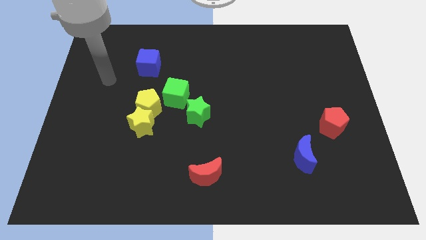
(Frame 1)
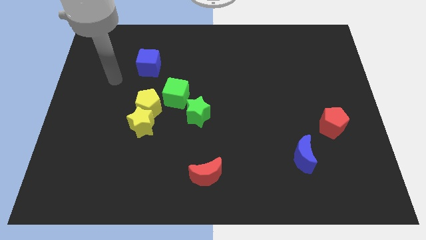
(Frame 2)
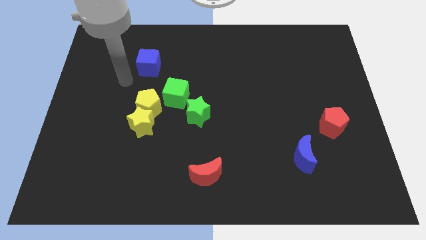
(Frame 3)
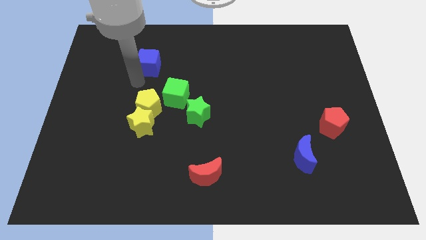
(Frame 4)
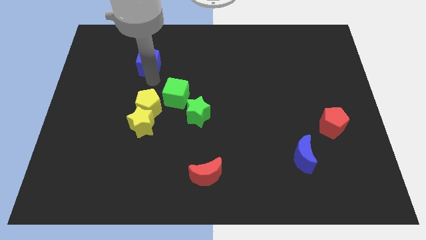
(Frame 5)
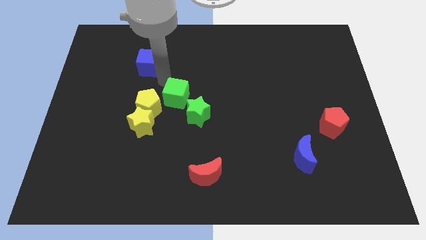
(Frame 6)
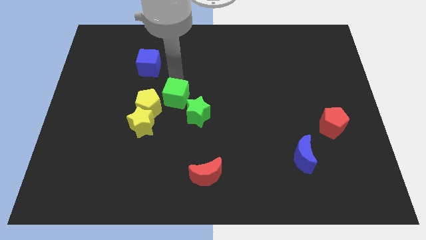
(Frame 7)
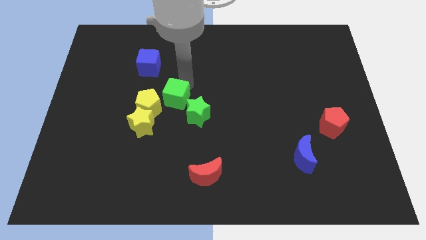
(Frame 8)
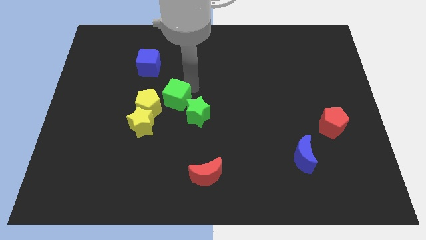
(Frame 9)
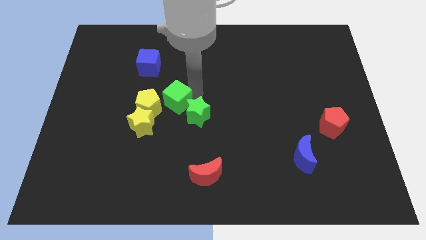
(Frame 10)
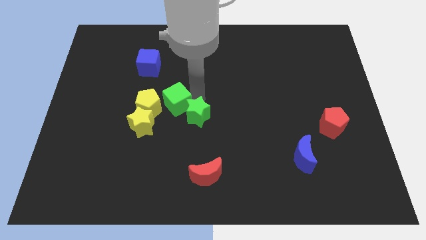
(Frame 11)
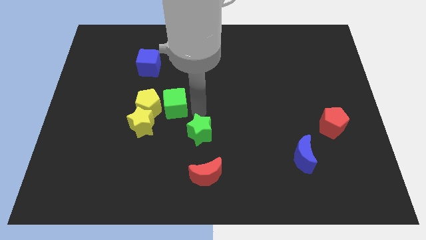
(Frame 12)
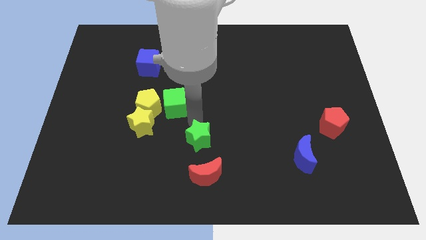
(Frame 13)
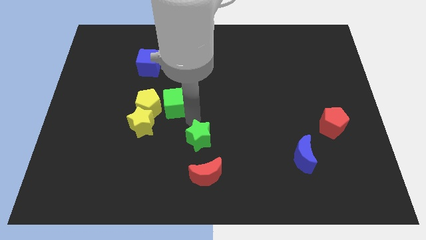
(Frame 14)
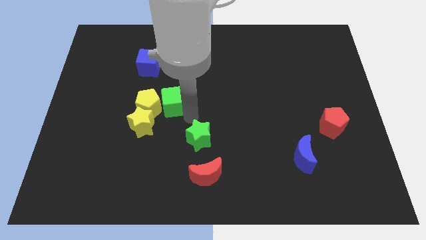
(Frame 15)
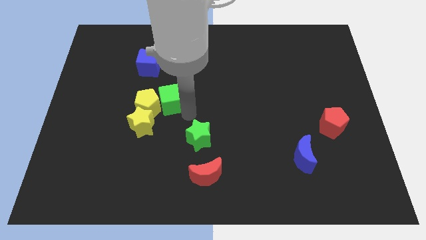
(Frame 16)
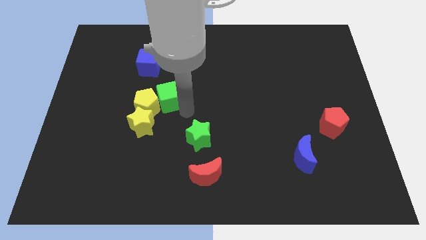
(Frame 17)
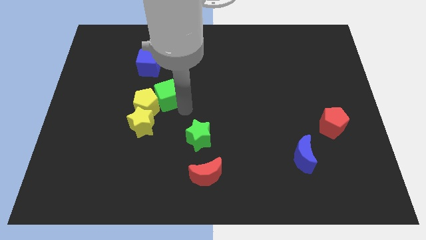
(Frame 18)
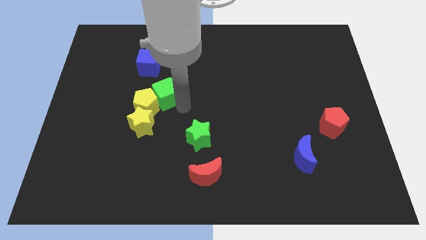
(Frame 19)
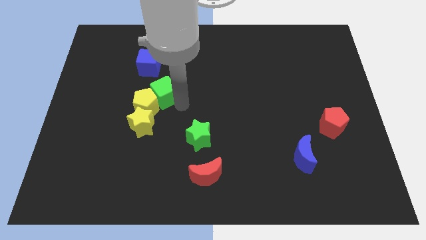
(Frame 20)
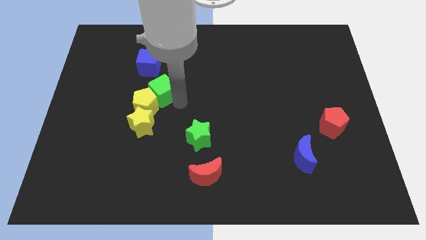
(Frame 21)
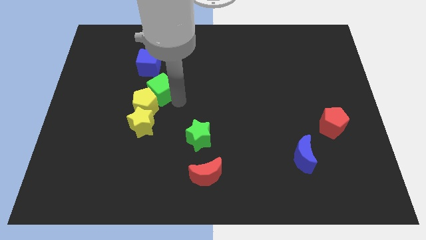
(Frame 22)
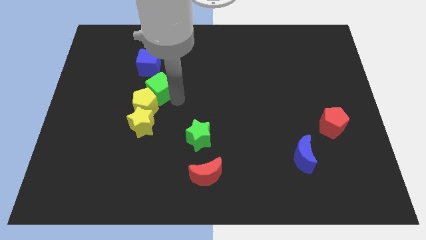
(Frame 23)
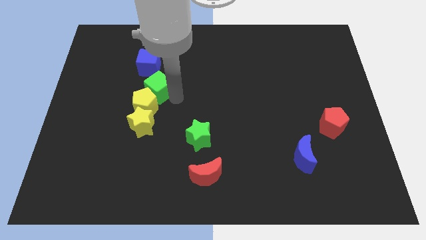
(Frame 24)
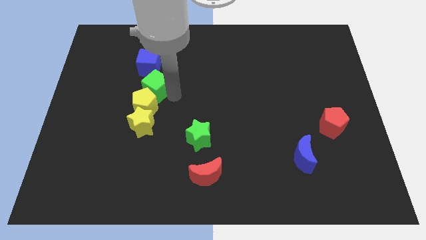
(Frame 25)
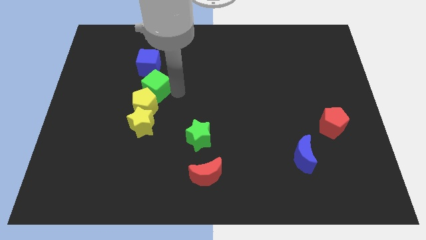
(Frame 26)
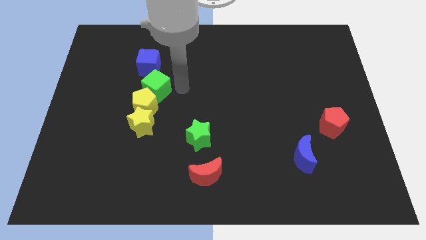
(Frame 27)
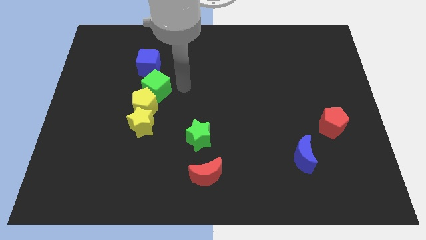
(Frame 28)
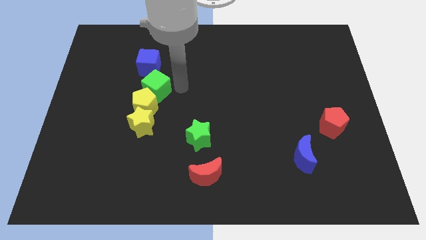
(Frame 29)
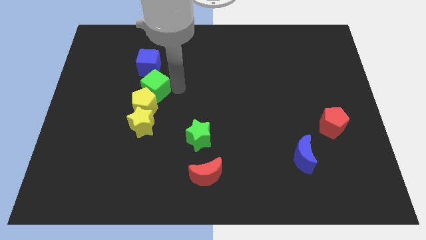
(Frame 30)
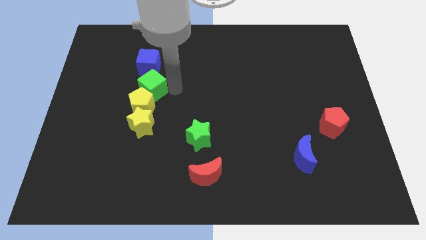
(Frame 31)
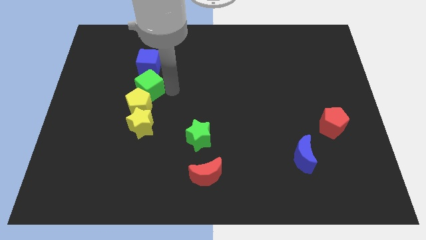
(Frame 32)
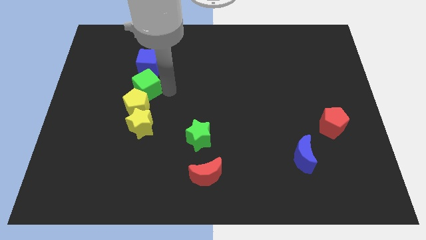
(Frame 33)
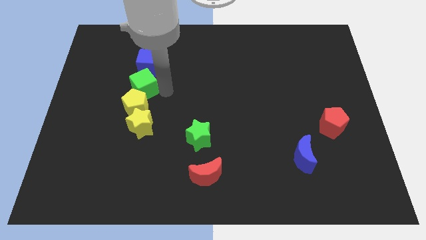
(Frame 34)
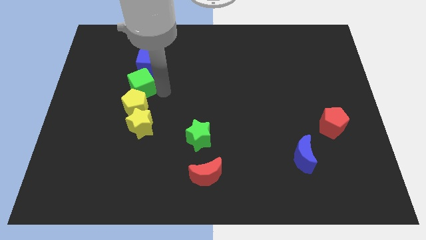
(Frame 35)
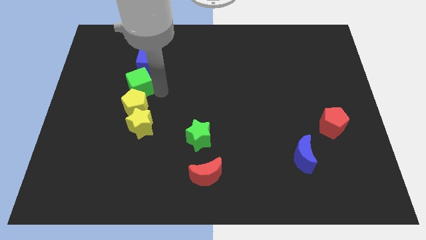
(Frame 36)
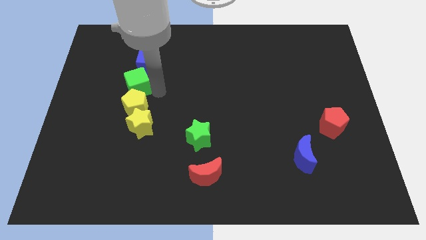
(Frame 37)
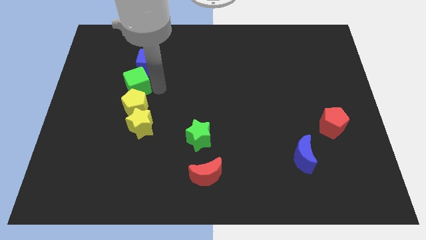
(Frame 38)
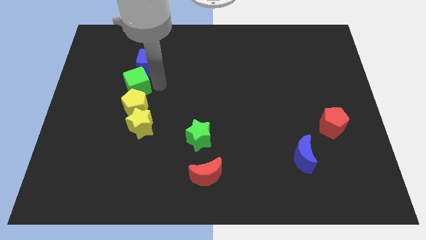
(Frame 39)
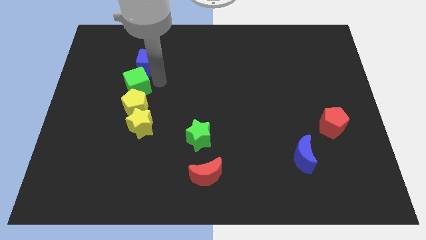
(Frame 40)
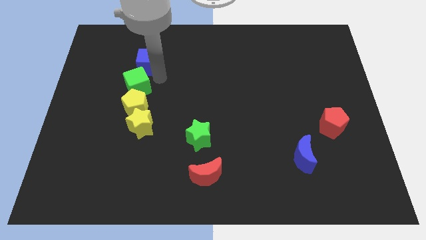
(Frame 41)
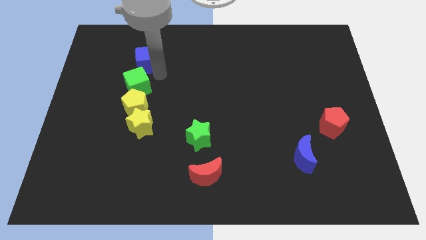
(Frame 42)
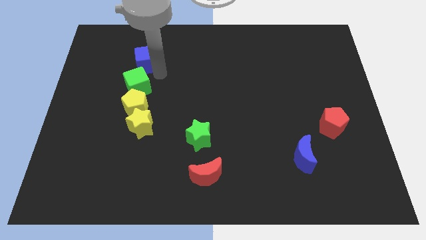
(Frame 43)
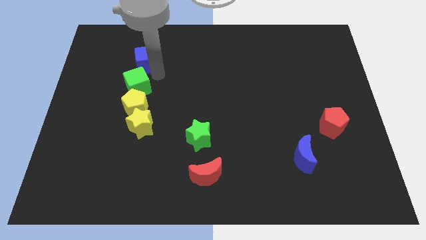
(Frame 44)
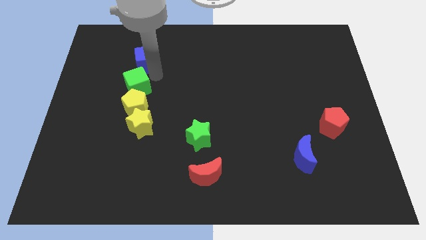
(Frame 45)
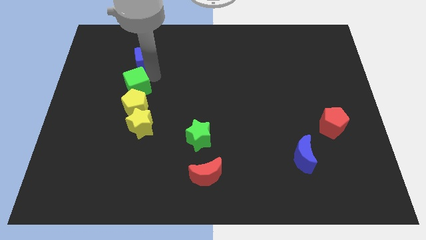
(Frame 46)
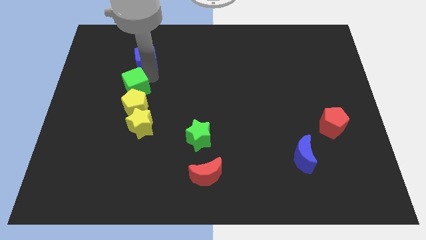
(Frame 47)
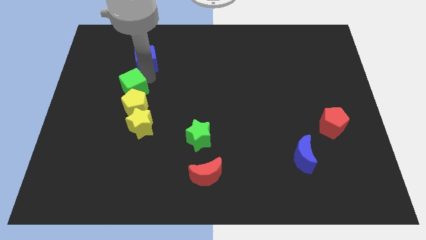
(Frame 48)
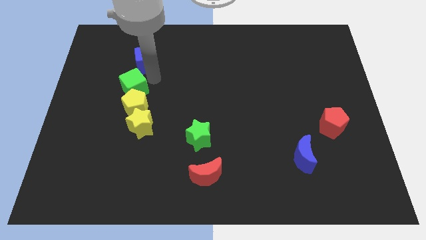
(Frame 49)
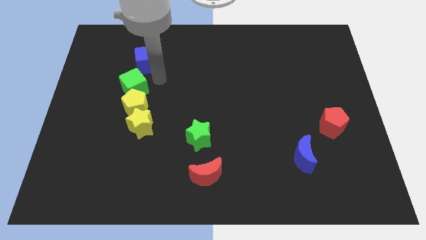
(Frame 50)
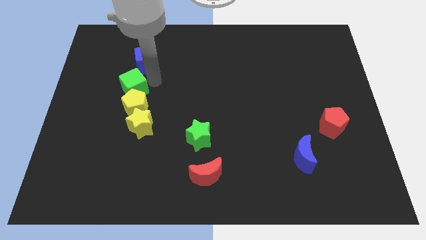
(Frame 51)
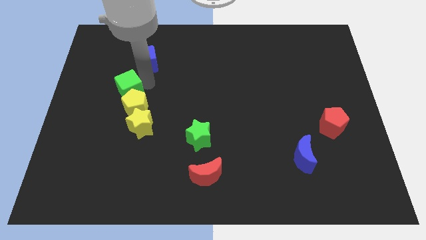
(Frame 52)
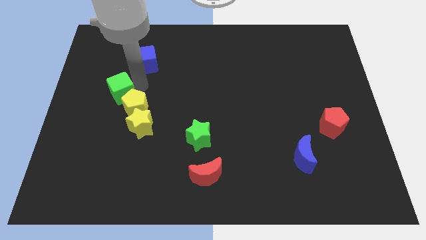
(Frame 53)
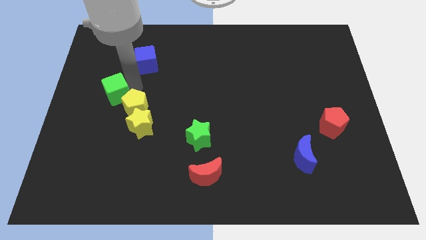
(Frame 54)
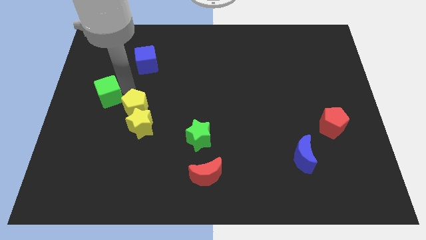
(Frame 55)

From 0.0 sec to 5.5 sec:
move the green cube to the left side of the board

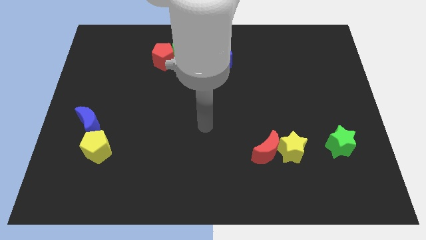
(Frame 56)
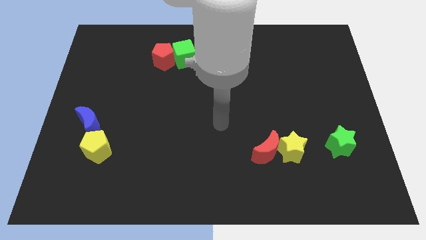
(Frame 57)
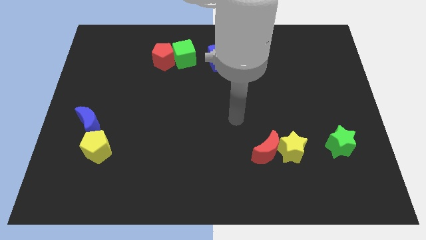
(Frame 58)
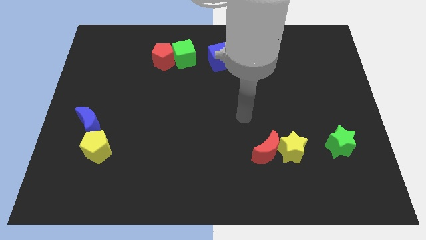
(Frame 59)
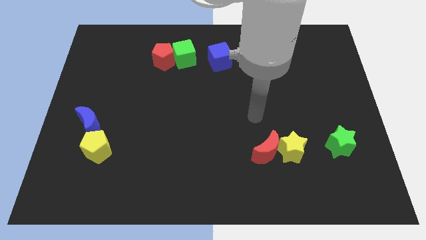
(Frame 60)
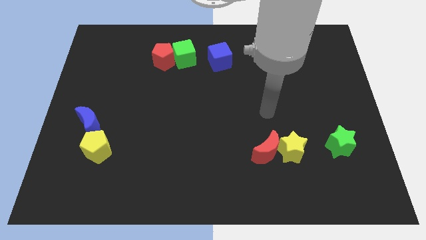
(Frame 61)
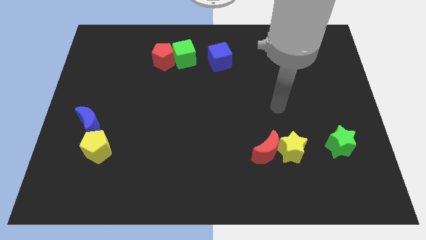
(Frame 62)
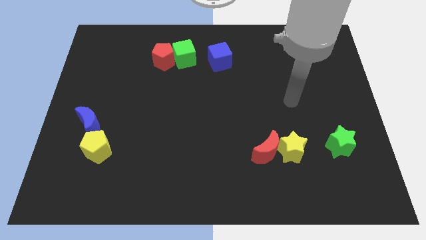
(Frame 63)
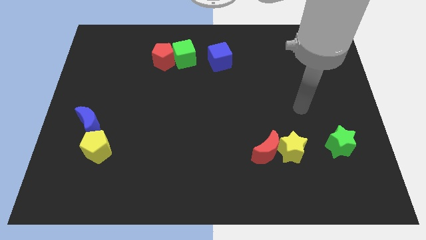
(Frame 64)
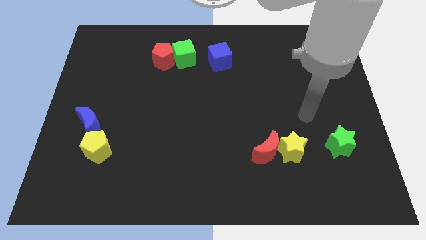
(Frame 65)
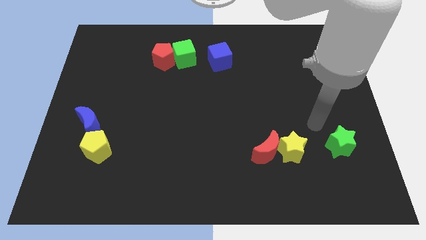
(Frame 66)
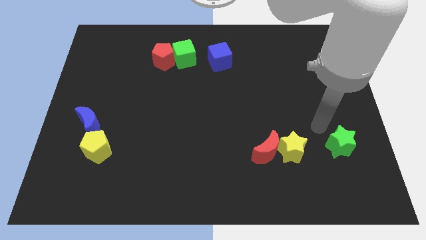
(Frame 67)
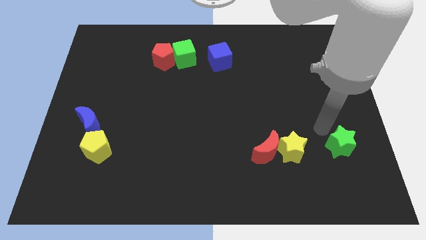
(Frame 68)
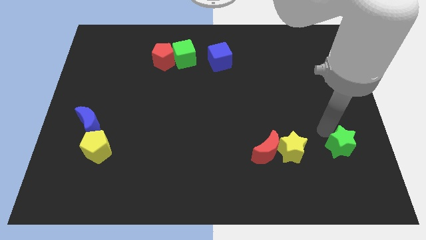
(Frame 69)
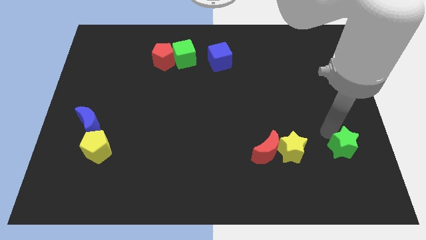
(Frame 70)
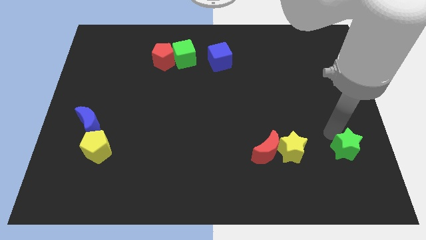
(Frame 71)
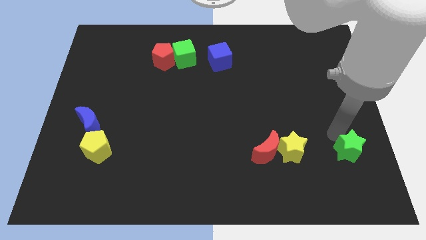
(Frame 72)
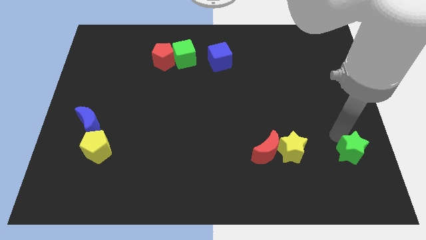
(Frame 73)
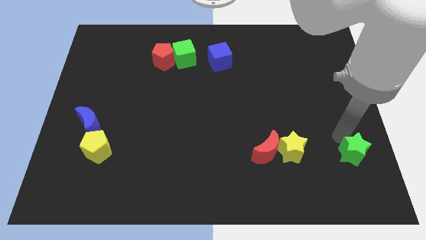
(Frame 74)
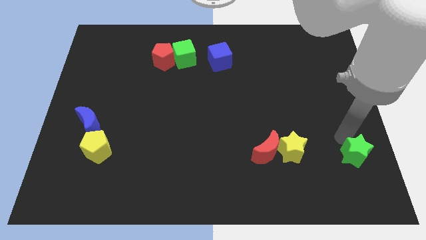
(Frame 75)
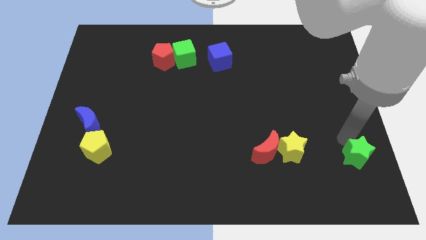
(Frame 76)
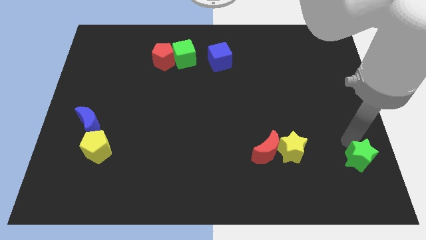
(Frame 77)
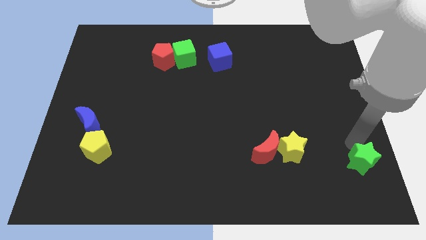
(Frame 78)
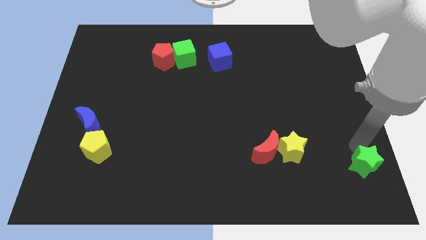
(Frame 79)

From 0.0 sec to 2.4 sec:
slide the green star to the lower right corner

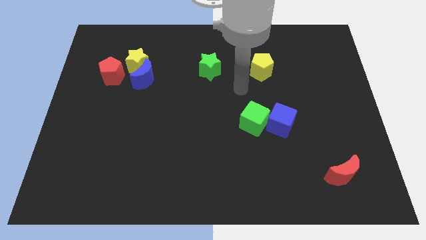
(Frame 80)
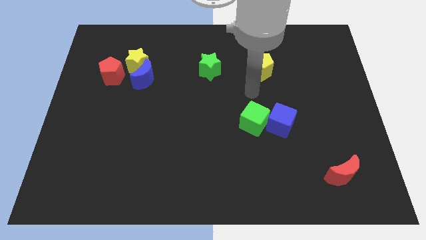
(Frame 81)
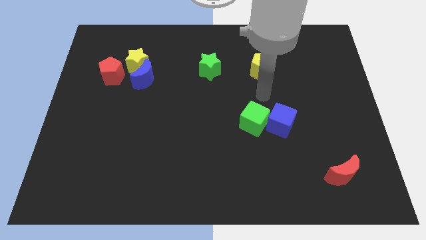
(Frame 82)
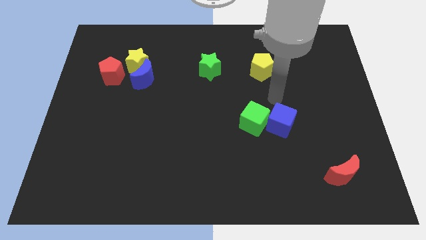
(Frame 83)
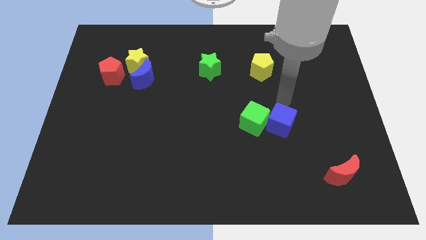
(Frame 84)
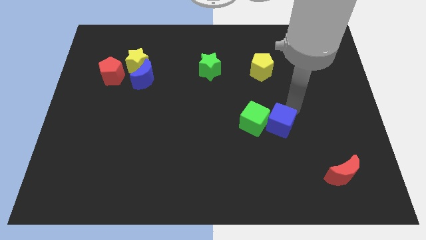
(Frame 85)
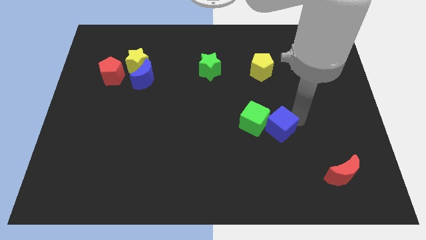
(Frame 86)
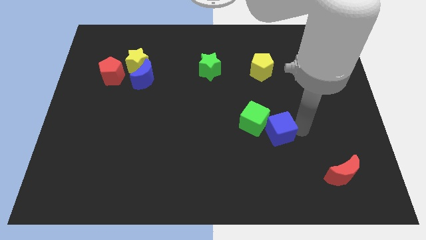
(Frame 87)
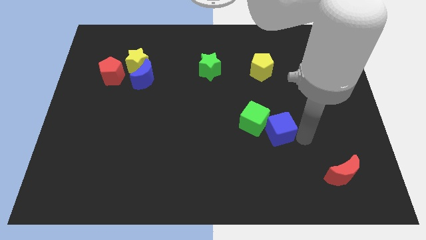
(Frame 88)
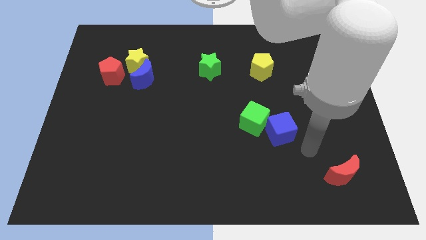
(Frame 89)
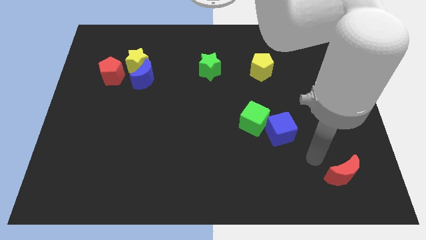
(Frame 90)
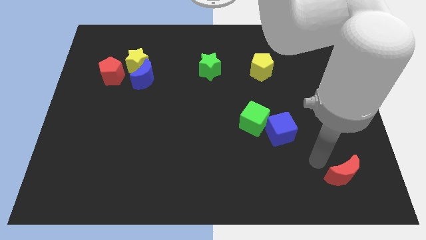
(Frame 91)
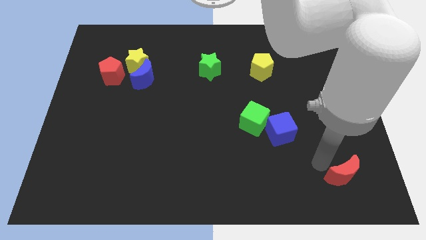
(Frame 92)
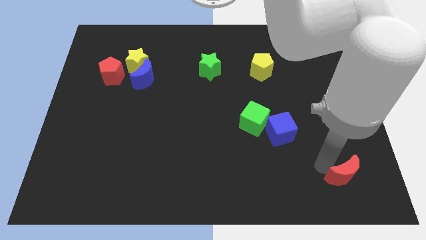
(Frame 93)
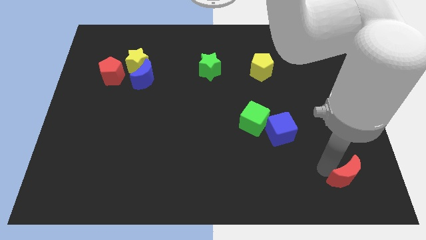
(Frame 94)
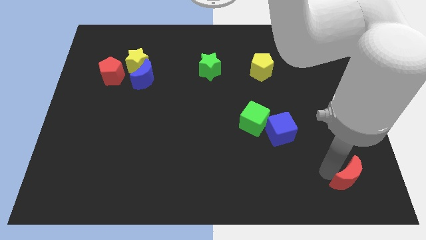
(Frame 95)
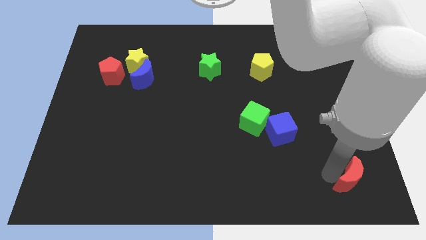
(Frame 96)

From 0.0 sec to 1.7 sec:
push the red moon to the bottom right corner
